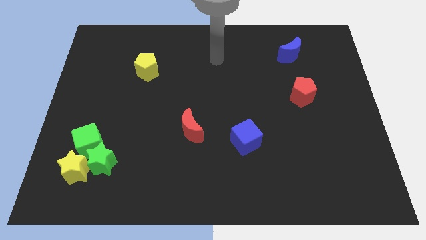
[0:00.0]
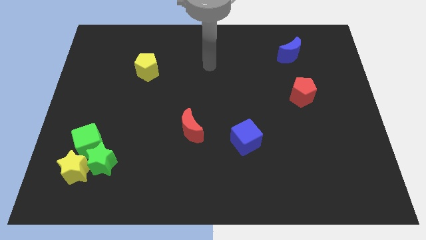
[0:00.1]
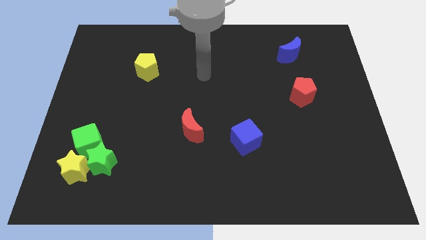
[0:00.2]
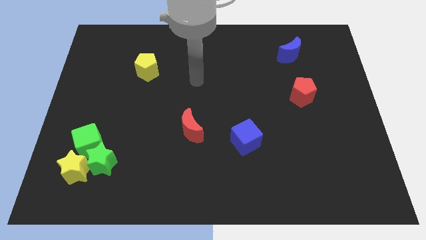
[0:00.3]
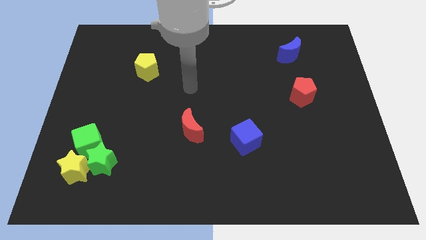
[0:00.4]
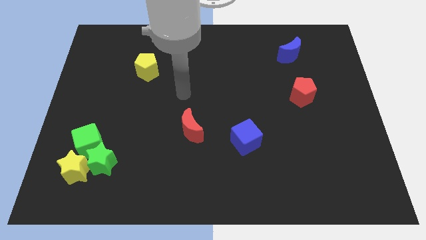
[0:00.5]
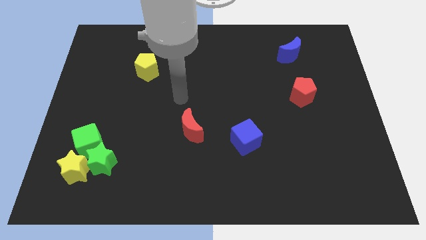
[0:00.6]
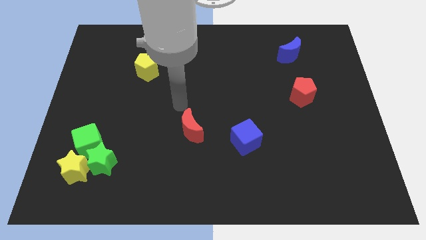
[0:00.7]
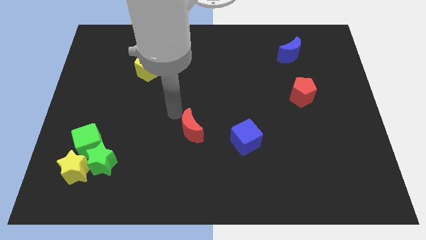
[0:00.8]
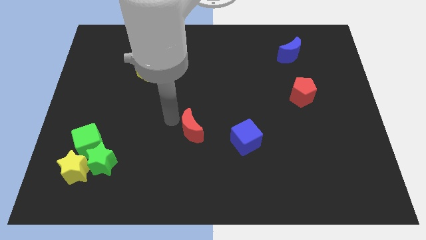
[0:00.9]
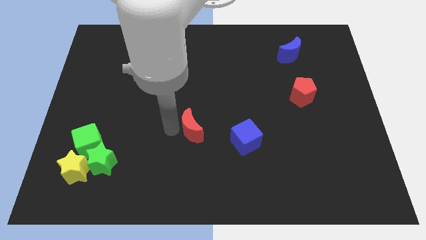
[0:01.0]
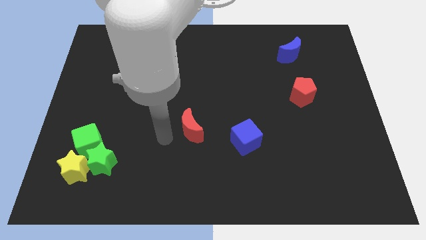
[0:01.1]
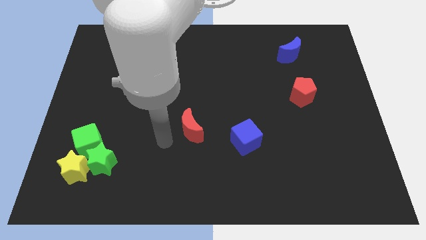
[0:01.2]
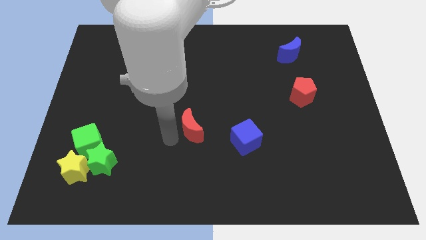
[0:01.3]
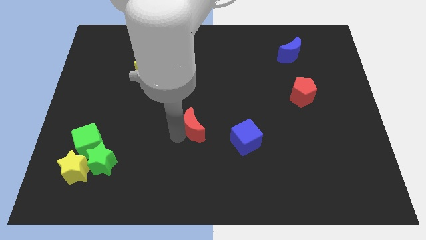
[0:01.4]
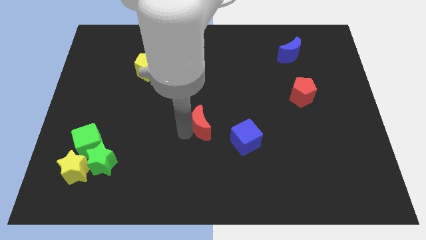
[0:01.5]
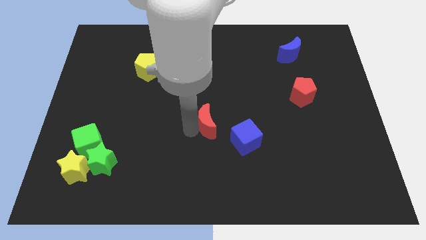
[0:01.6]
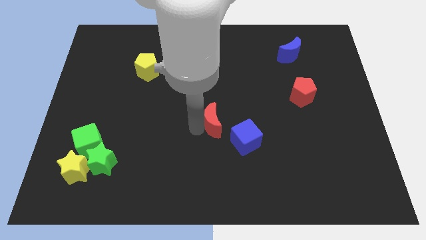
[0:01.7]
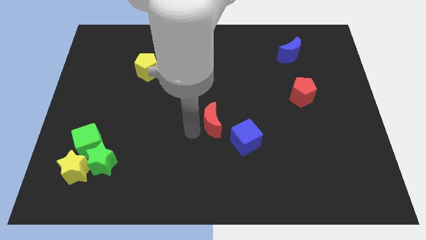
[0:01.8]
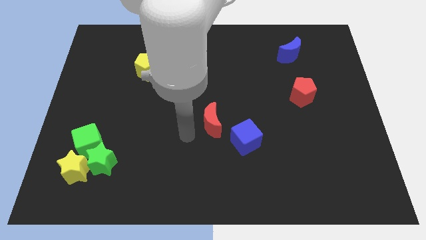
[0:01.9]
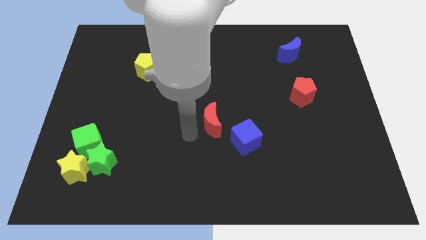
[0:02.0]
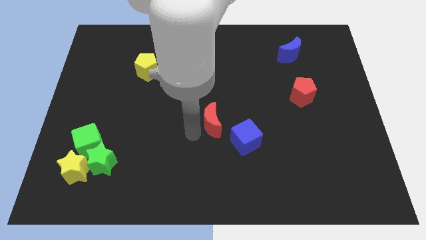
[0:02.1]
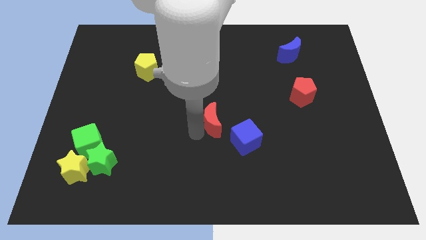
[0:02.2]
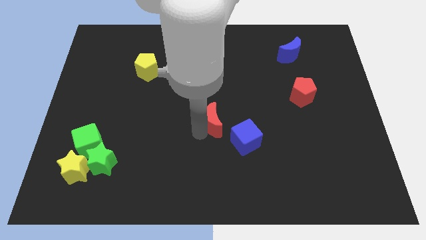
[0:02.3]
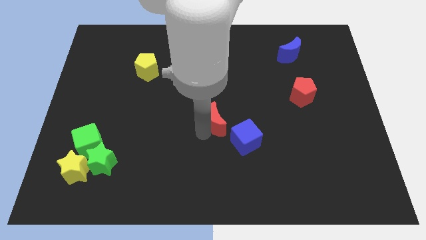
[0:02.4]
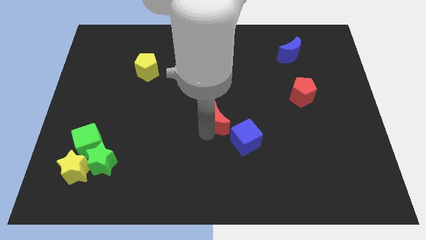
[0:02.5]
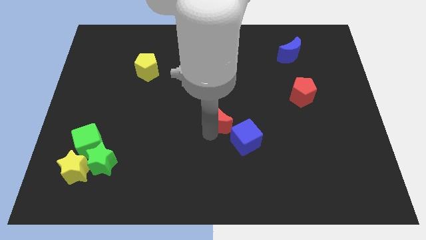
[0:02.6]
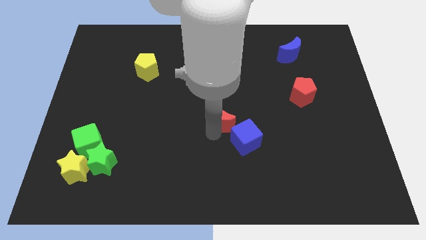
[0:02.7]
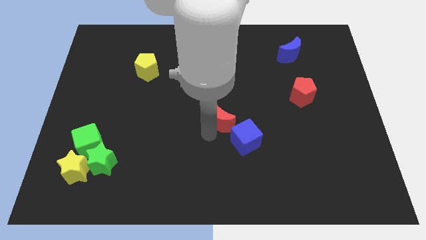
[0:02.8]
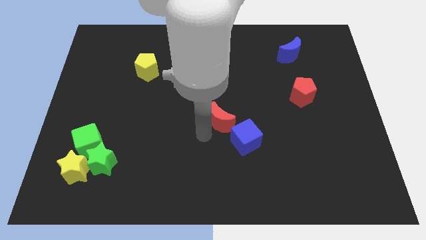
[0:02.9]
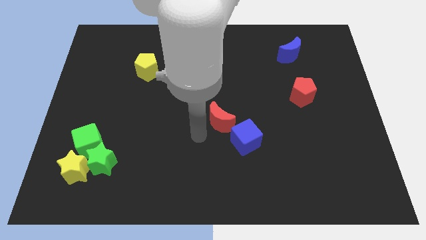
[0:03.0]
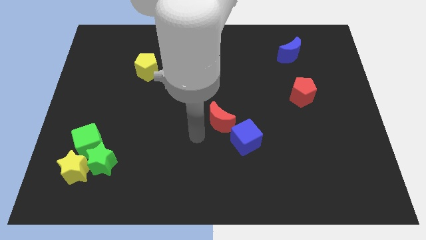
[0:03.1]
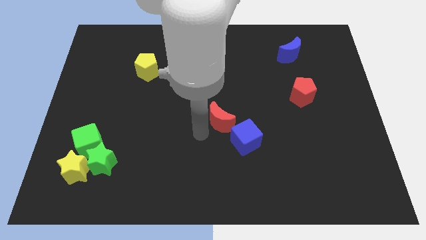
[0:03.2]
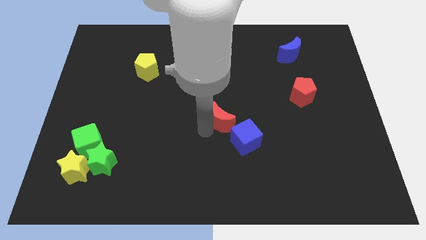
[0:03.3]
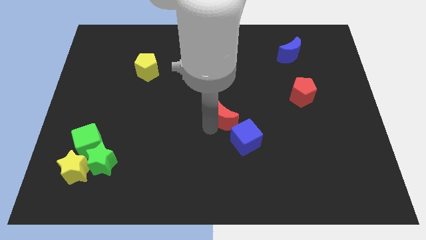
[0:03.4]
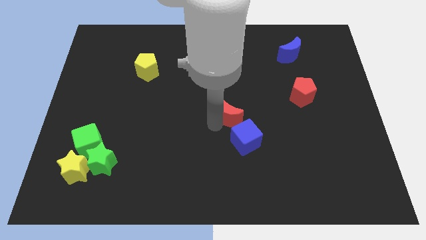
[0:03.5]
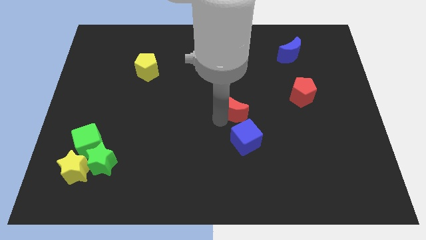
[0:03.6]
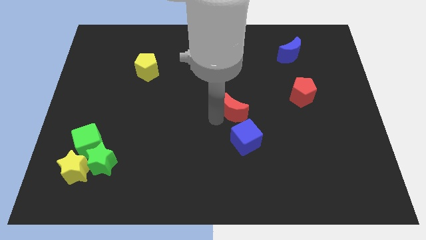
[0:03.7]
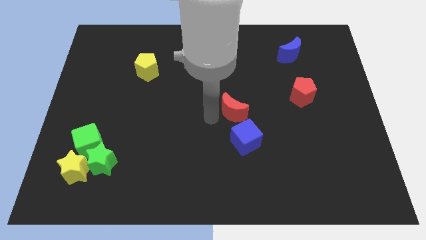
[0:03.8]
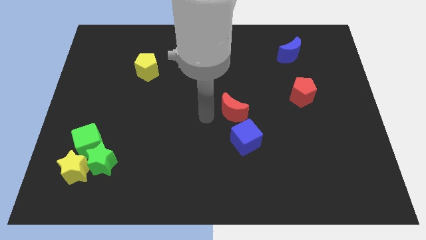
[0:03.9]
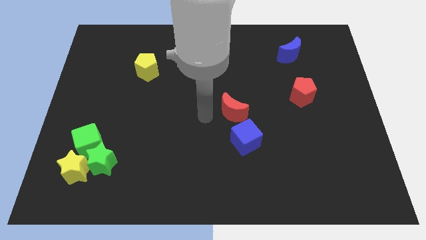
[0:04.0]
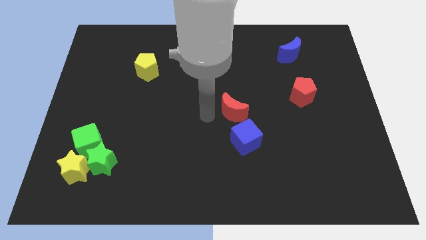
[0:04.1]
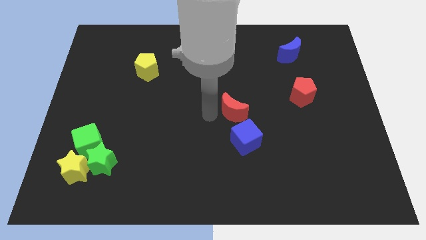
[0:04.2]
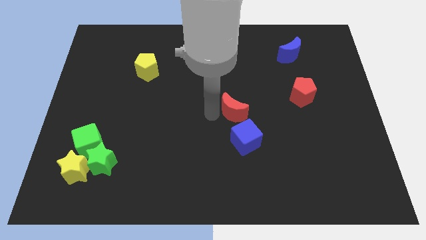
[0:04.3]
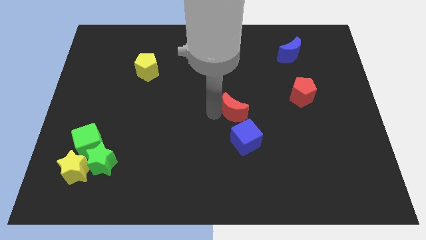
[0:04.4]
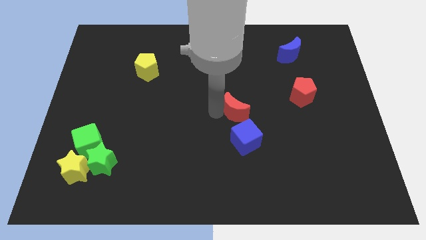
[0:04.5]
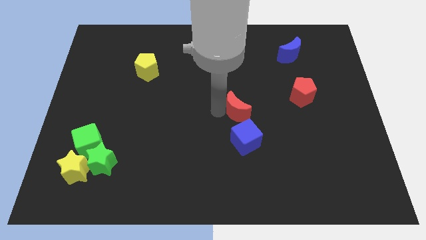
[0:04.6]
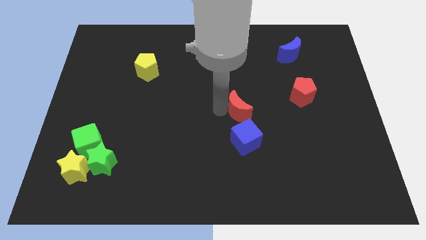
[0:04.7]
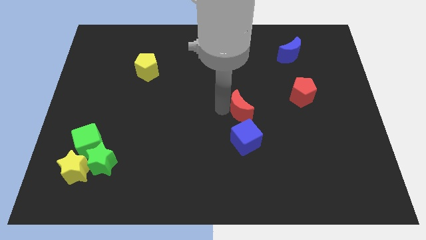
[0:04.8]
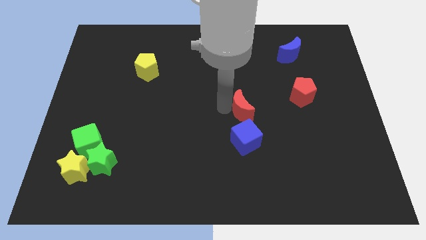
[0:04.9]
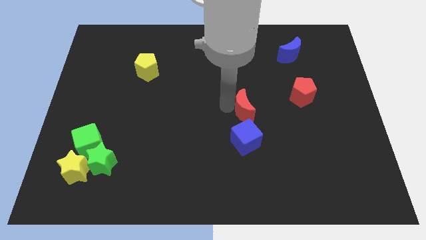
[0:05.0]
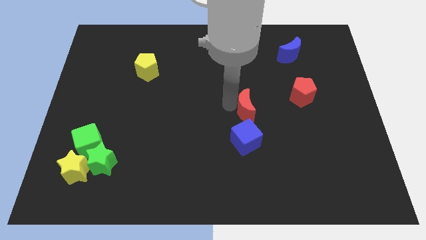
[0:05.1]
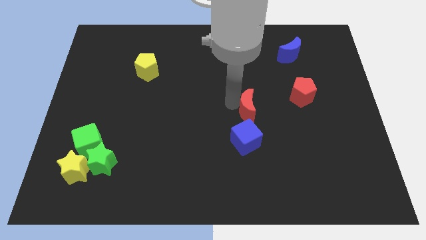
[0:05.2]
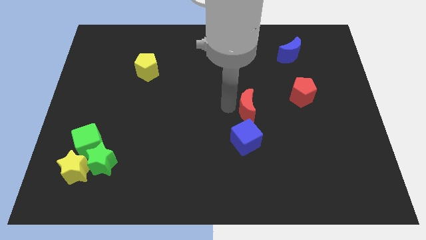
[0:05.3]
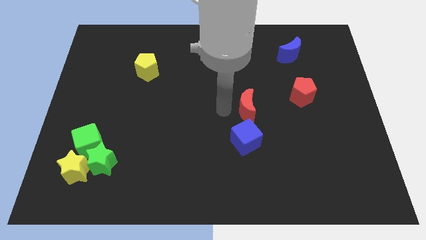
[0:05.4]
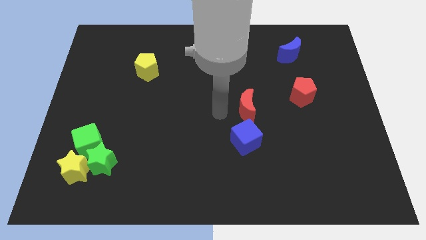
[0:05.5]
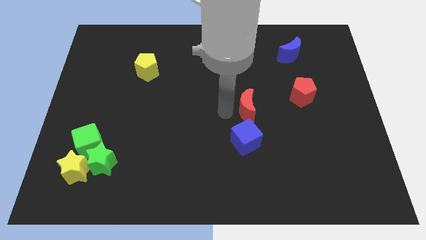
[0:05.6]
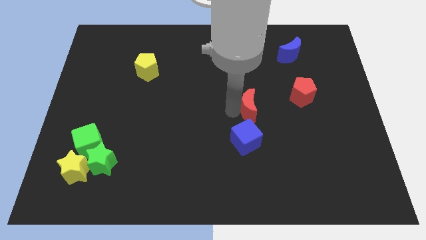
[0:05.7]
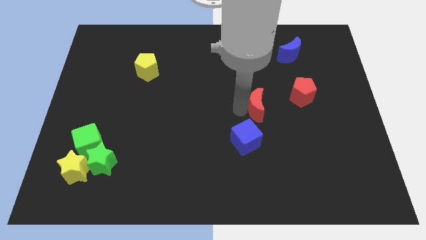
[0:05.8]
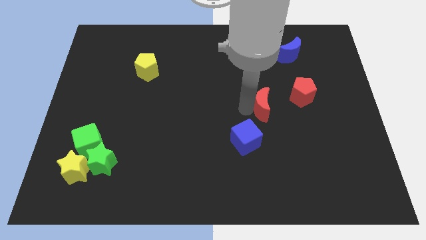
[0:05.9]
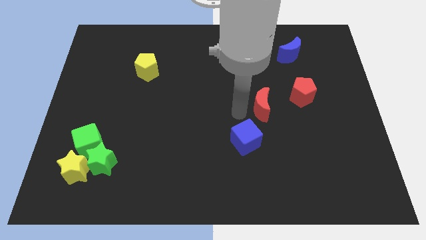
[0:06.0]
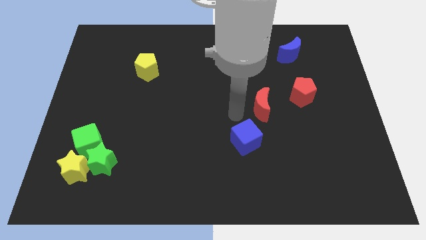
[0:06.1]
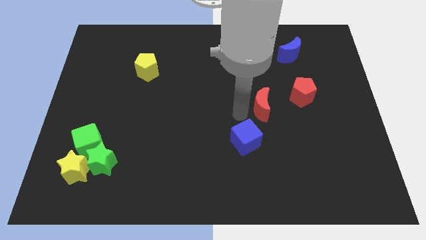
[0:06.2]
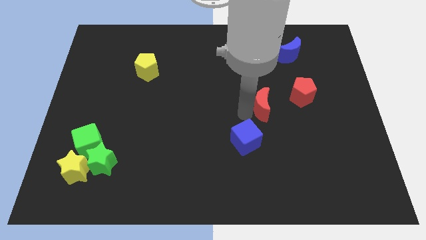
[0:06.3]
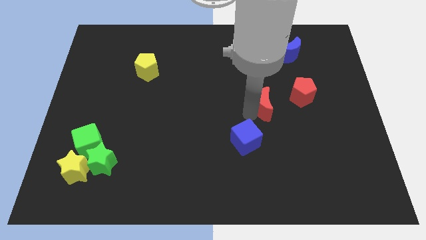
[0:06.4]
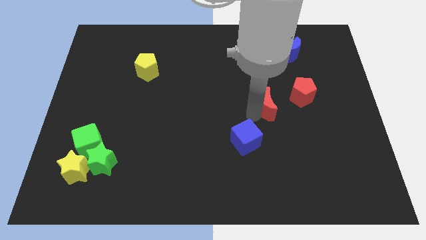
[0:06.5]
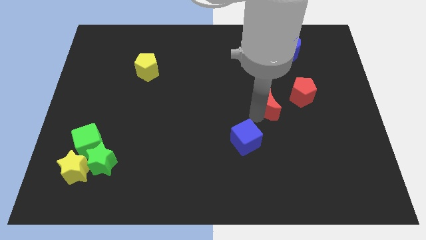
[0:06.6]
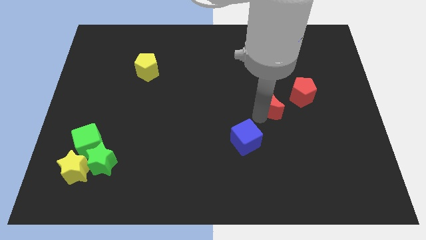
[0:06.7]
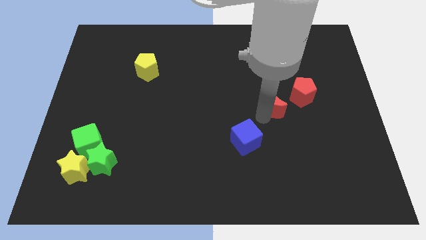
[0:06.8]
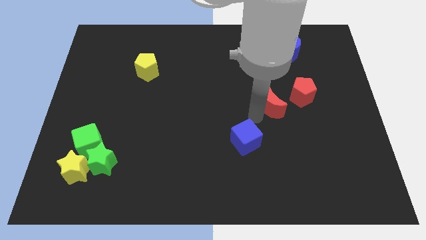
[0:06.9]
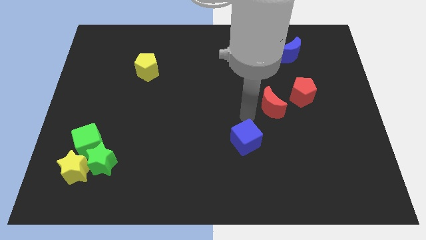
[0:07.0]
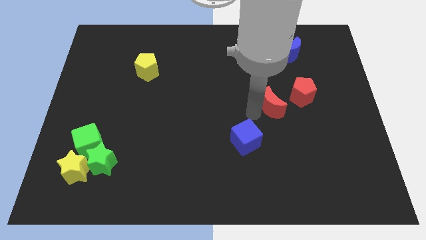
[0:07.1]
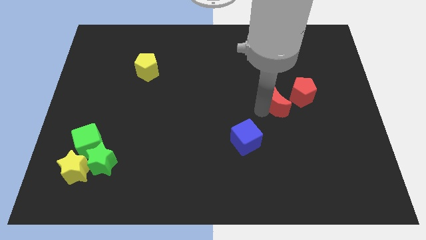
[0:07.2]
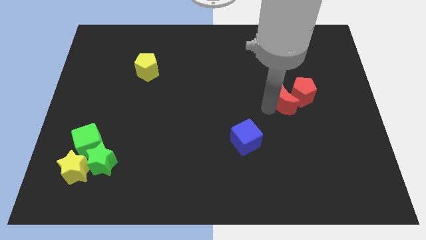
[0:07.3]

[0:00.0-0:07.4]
push the red moon towards the red pentagon

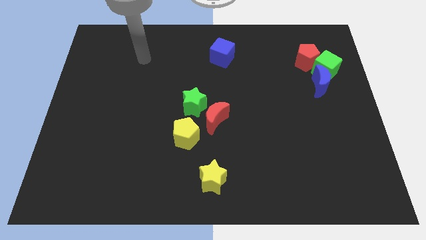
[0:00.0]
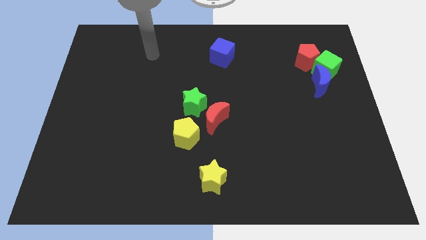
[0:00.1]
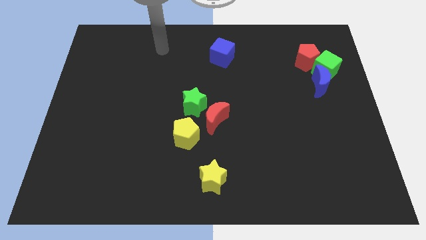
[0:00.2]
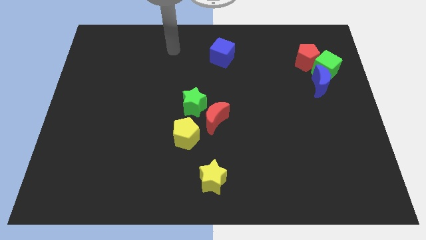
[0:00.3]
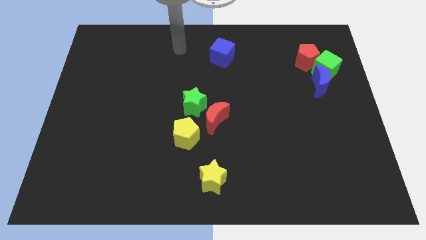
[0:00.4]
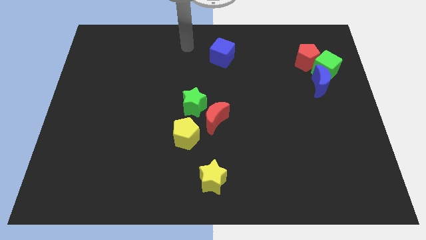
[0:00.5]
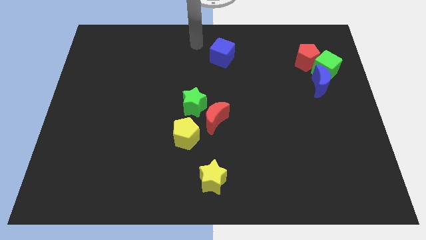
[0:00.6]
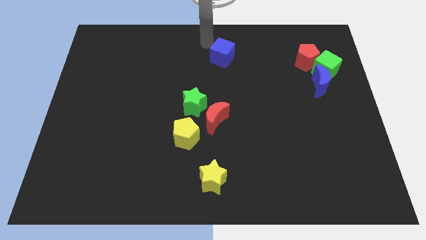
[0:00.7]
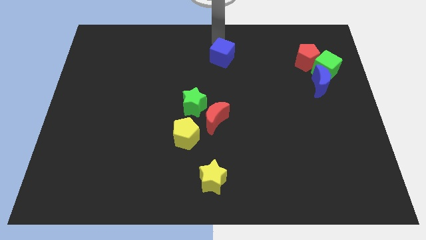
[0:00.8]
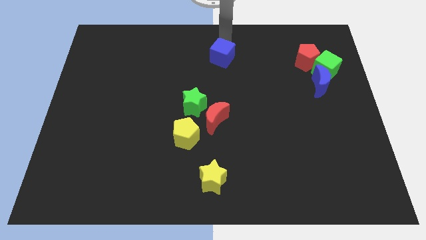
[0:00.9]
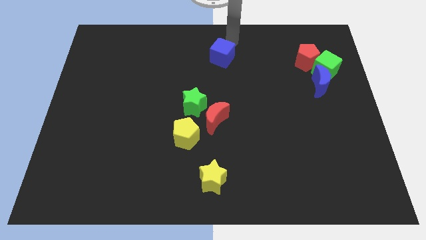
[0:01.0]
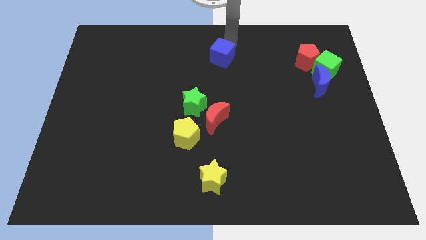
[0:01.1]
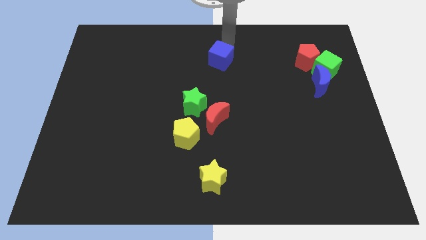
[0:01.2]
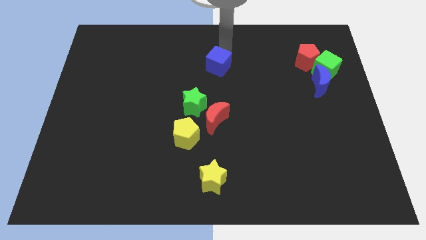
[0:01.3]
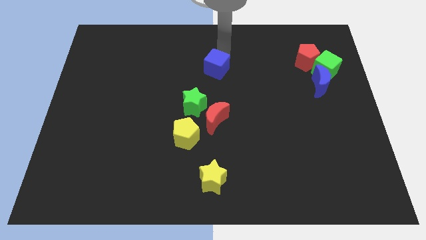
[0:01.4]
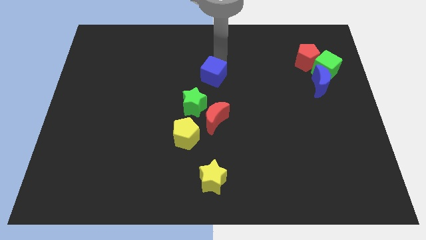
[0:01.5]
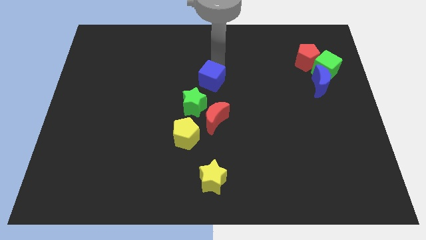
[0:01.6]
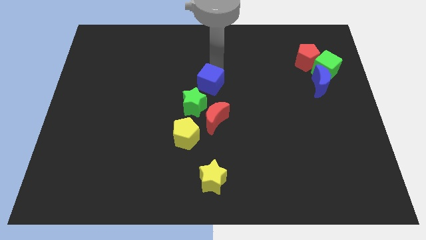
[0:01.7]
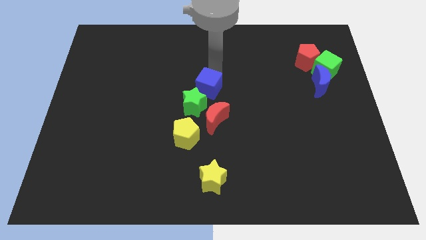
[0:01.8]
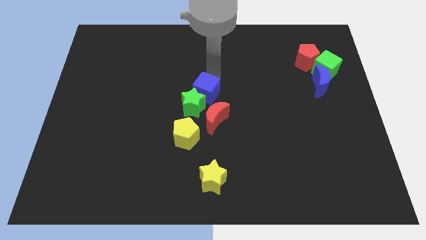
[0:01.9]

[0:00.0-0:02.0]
put the blue cube to the green star
